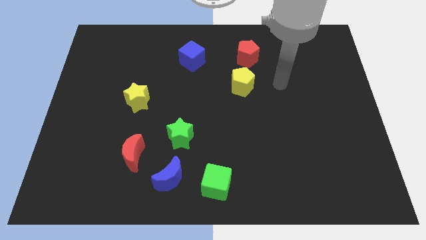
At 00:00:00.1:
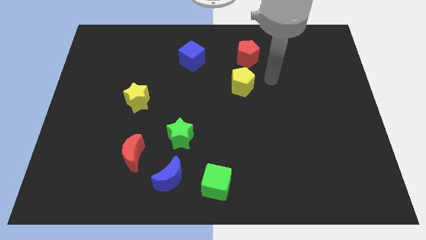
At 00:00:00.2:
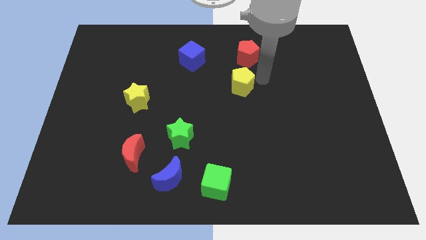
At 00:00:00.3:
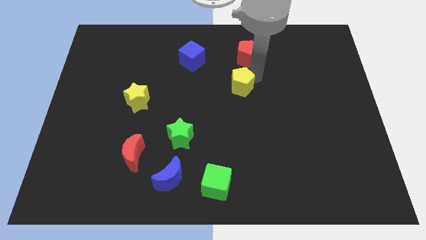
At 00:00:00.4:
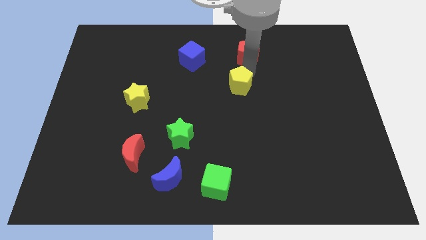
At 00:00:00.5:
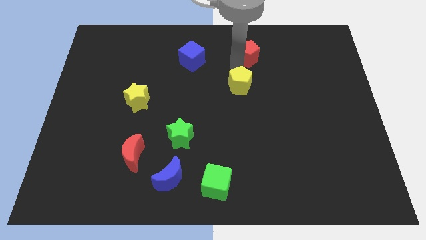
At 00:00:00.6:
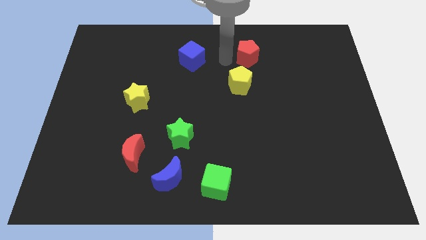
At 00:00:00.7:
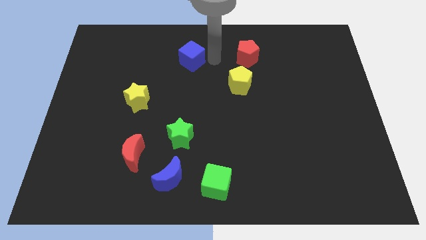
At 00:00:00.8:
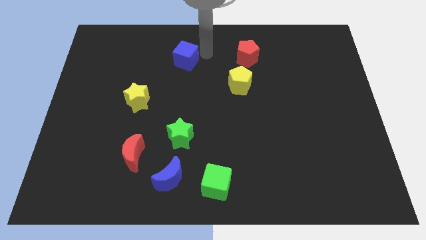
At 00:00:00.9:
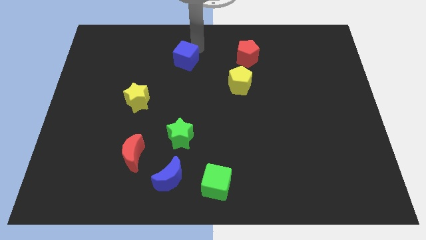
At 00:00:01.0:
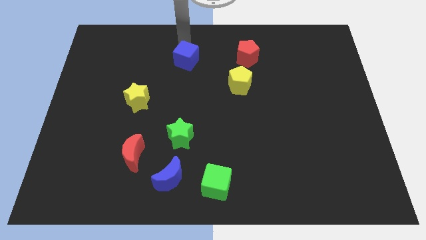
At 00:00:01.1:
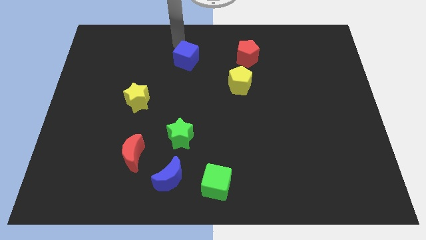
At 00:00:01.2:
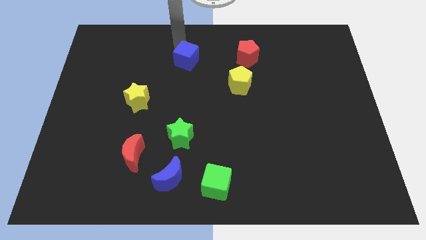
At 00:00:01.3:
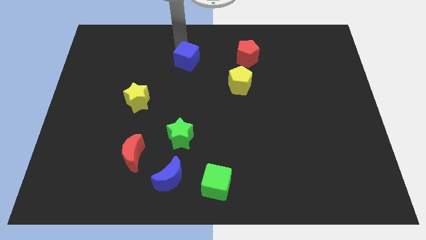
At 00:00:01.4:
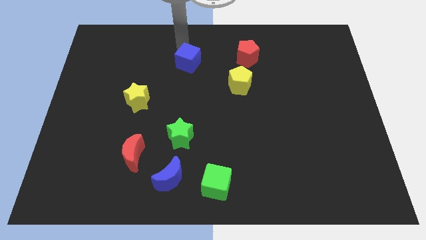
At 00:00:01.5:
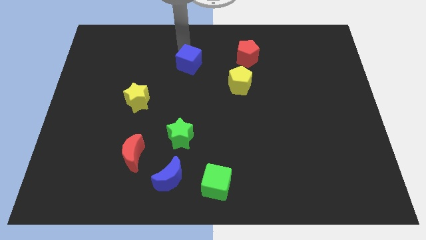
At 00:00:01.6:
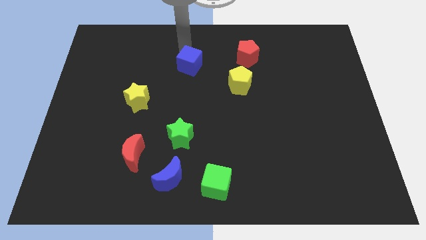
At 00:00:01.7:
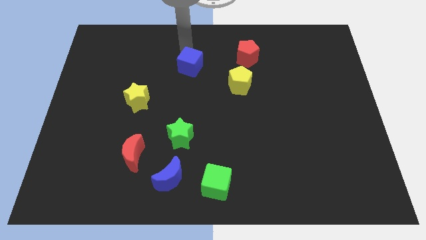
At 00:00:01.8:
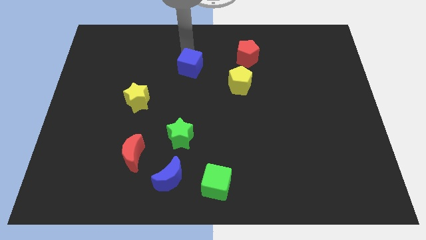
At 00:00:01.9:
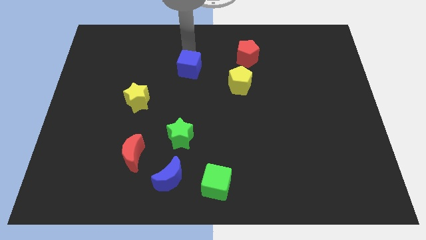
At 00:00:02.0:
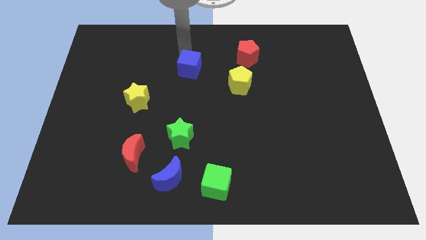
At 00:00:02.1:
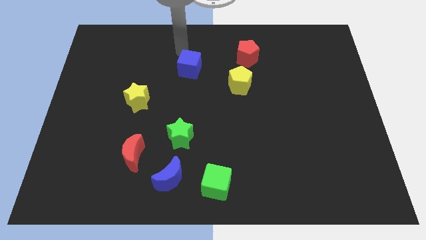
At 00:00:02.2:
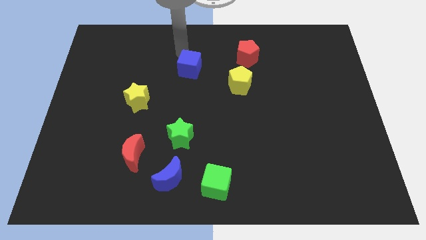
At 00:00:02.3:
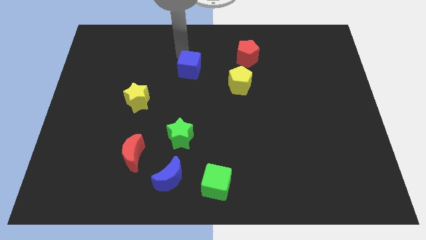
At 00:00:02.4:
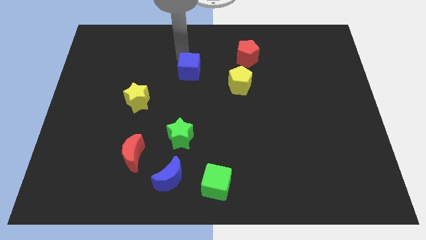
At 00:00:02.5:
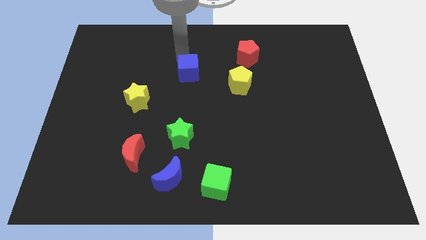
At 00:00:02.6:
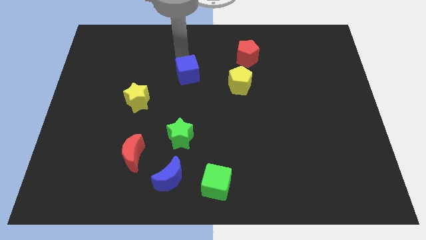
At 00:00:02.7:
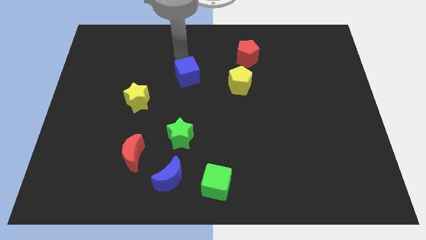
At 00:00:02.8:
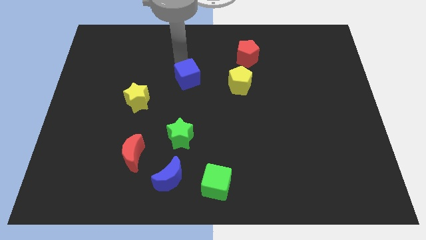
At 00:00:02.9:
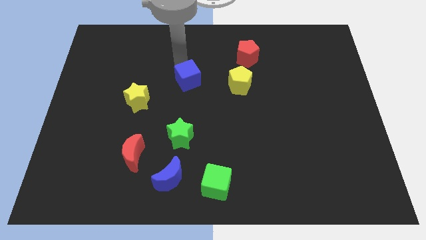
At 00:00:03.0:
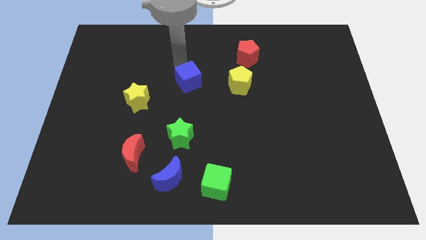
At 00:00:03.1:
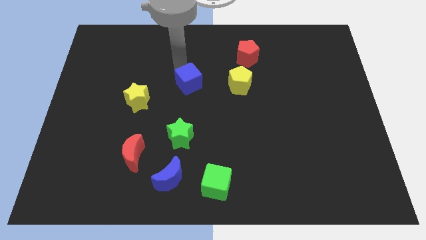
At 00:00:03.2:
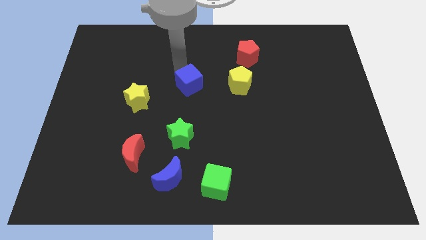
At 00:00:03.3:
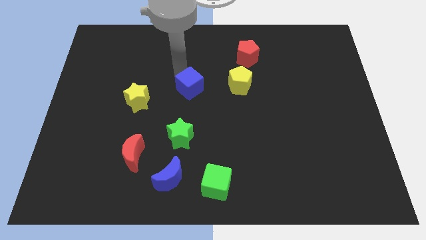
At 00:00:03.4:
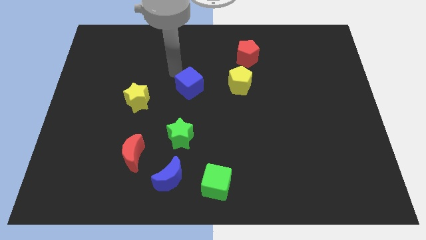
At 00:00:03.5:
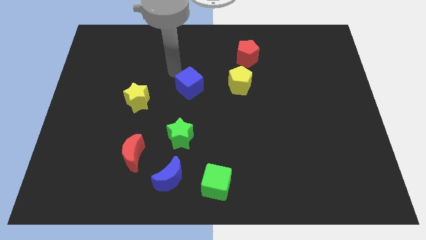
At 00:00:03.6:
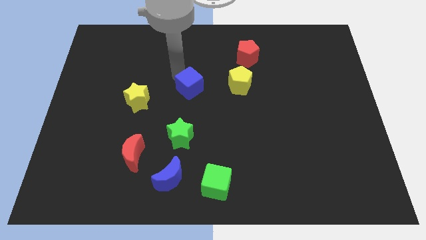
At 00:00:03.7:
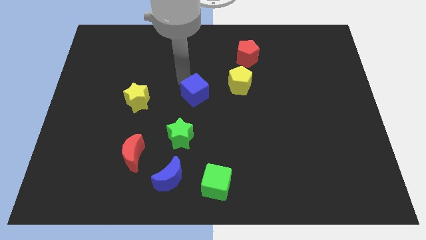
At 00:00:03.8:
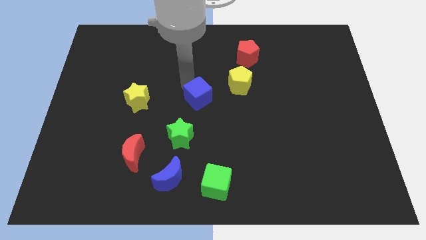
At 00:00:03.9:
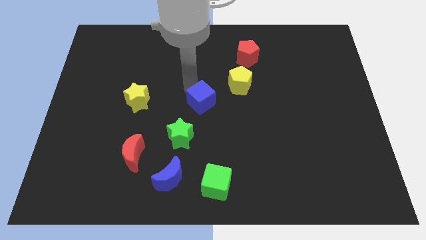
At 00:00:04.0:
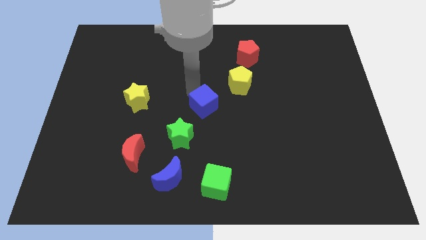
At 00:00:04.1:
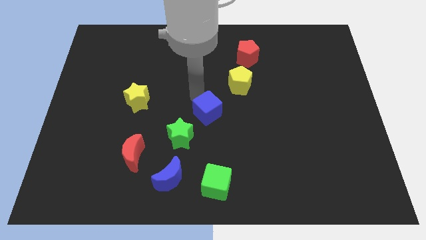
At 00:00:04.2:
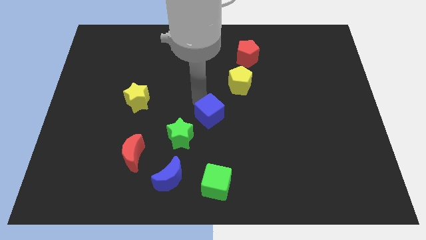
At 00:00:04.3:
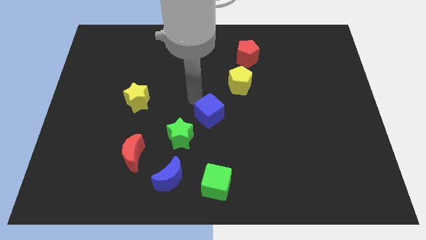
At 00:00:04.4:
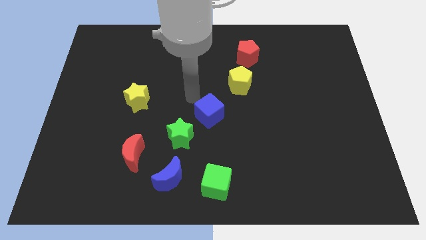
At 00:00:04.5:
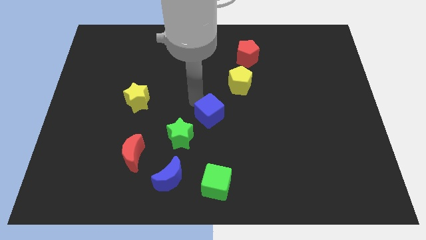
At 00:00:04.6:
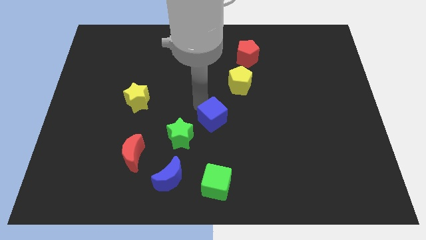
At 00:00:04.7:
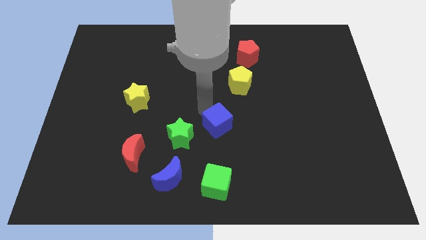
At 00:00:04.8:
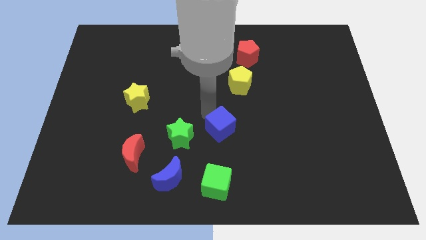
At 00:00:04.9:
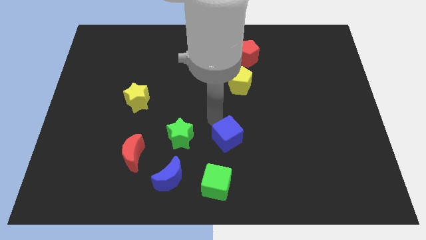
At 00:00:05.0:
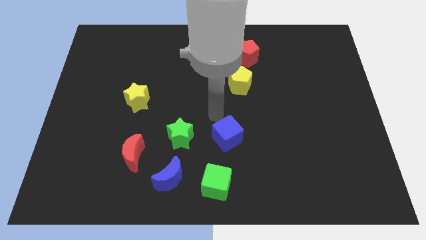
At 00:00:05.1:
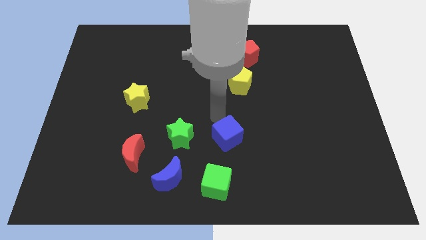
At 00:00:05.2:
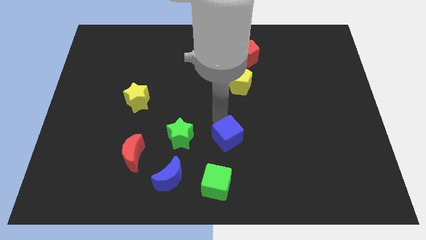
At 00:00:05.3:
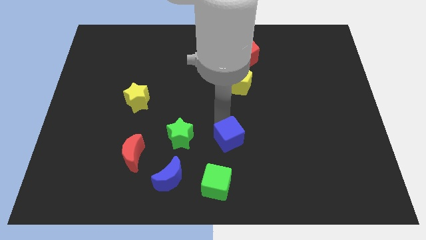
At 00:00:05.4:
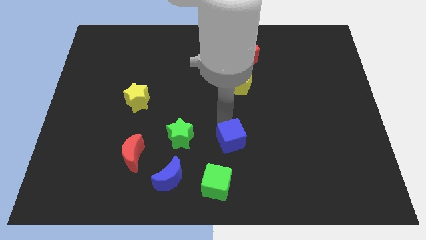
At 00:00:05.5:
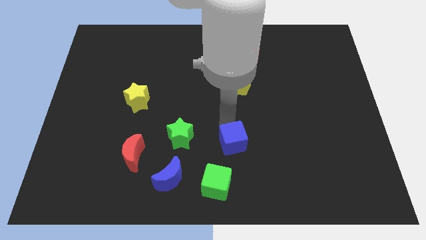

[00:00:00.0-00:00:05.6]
put the blue cube to the top right side of the green cube

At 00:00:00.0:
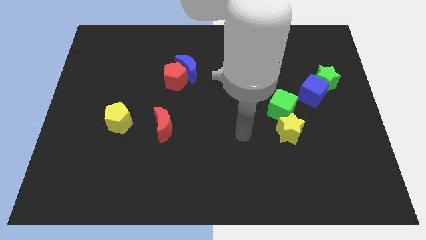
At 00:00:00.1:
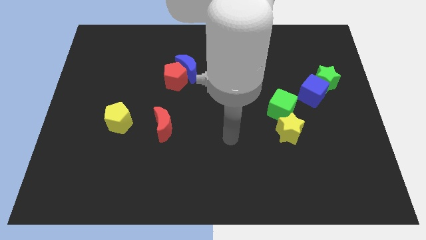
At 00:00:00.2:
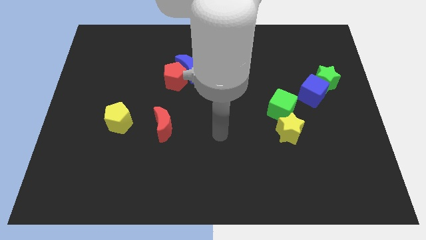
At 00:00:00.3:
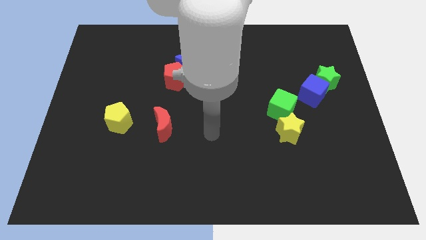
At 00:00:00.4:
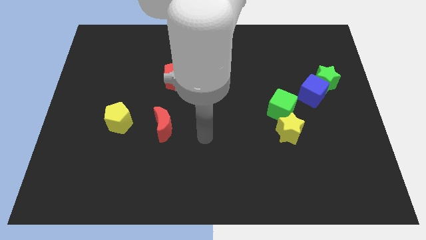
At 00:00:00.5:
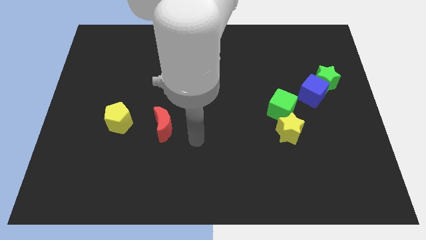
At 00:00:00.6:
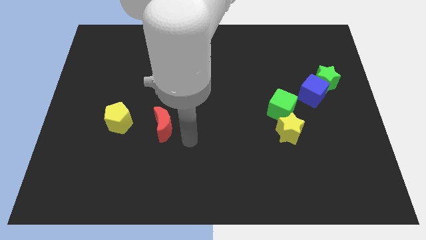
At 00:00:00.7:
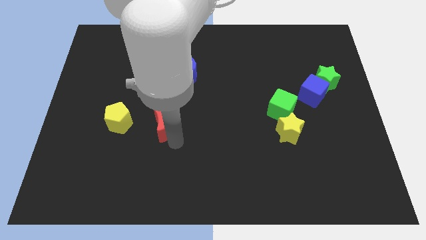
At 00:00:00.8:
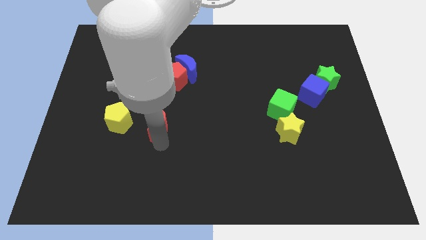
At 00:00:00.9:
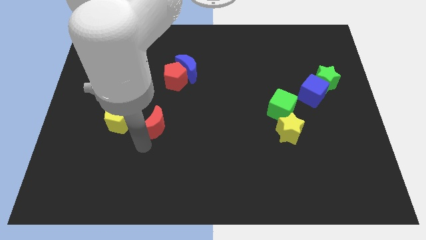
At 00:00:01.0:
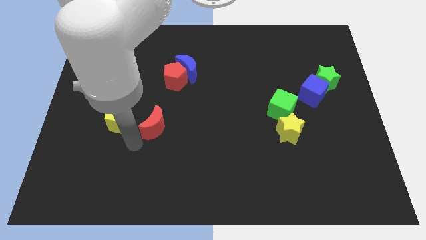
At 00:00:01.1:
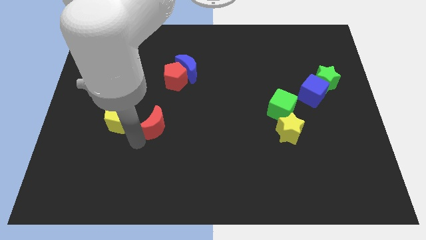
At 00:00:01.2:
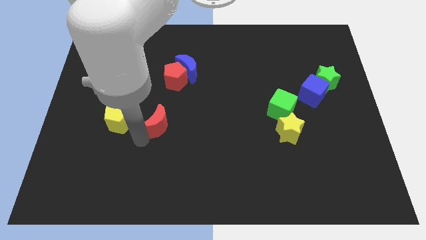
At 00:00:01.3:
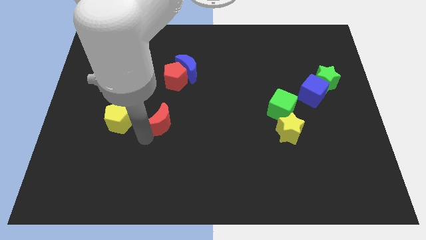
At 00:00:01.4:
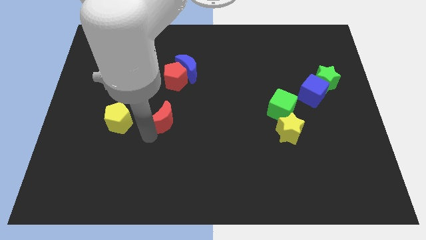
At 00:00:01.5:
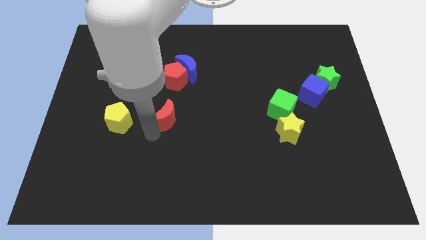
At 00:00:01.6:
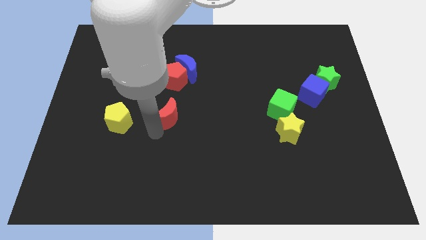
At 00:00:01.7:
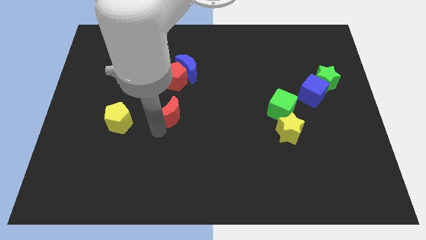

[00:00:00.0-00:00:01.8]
slide the red moon to the bottom side of the blue moon

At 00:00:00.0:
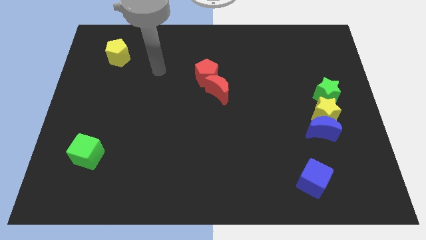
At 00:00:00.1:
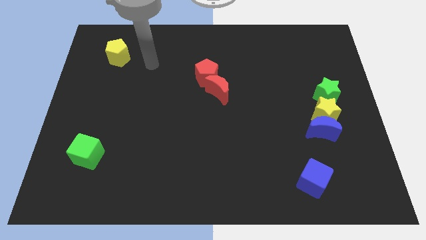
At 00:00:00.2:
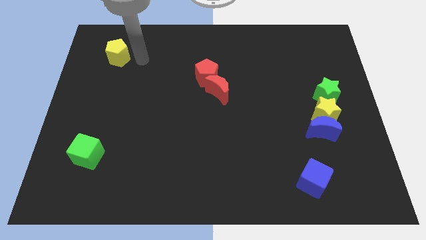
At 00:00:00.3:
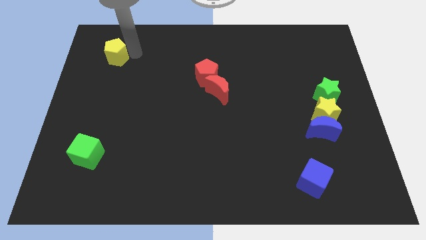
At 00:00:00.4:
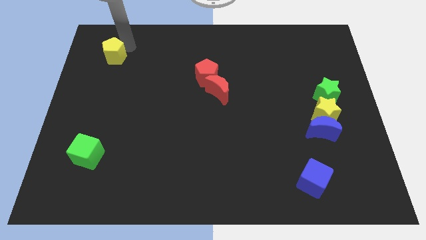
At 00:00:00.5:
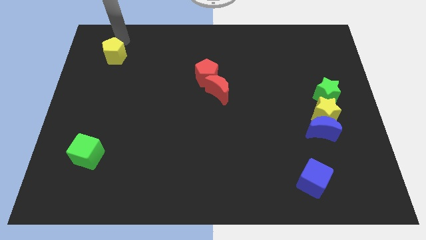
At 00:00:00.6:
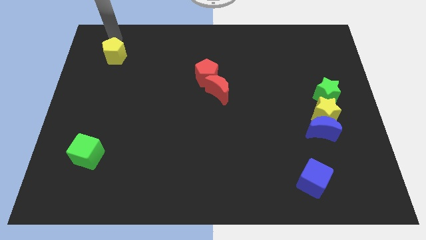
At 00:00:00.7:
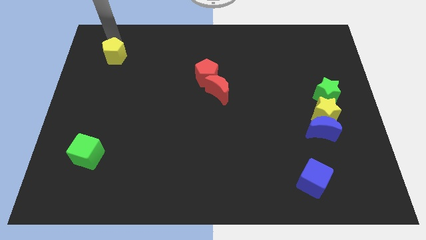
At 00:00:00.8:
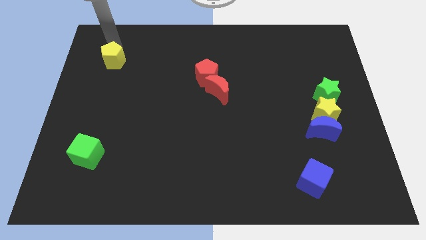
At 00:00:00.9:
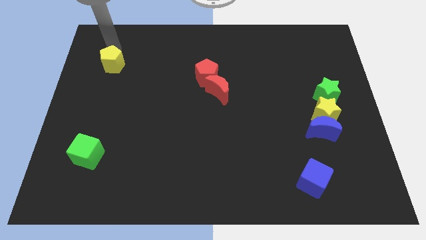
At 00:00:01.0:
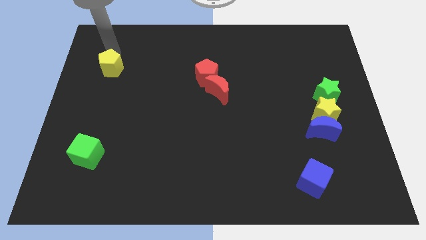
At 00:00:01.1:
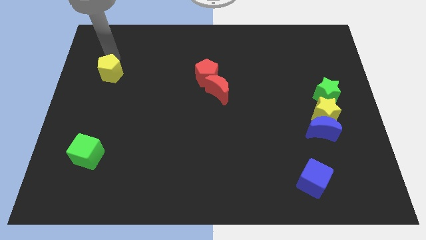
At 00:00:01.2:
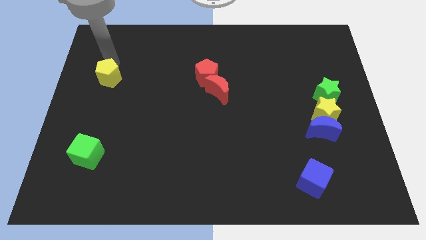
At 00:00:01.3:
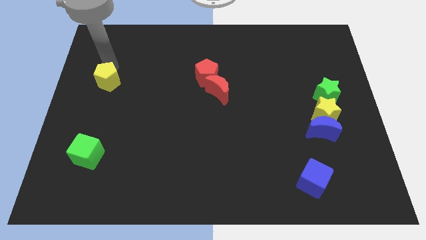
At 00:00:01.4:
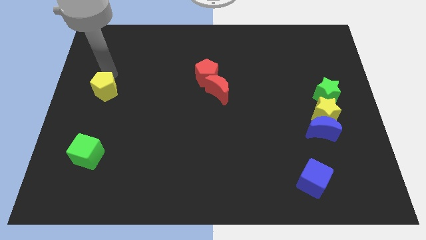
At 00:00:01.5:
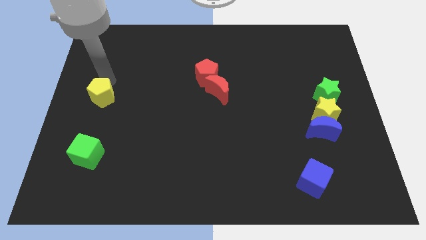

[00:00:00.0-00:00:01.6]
put the yellow pentagon to the top side of the green cube
